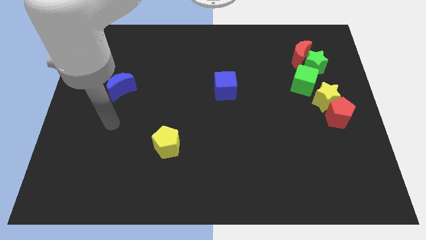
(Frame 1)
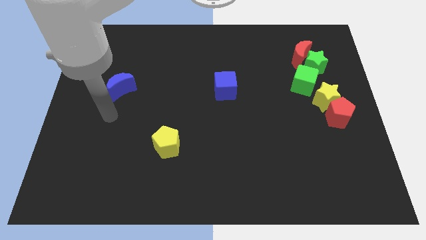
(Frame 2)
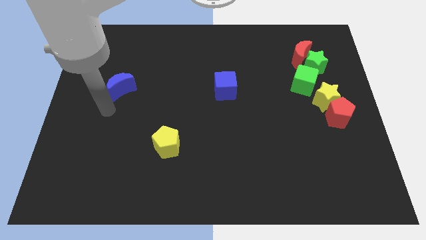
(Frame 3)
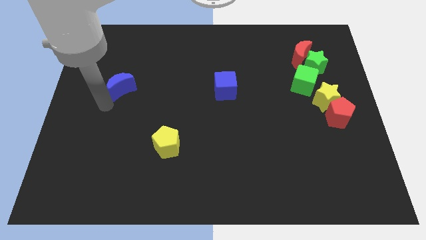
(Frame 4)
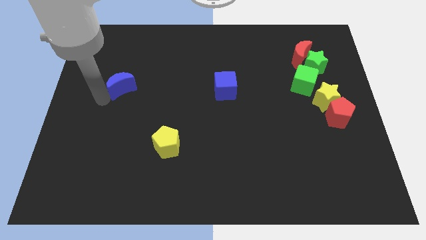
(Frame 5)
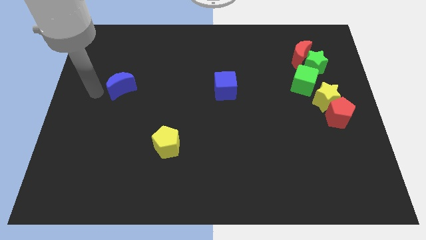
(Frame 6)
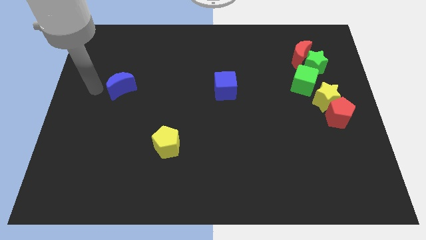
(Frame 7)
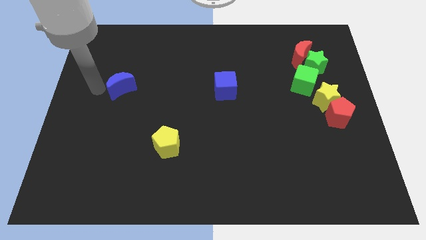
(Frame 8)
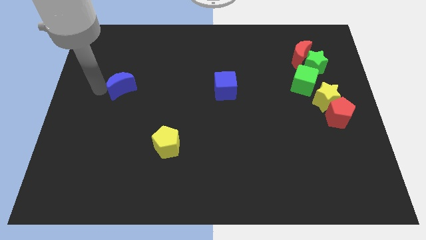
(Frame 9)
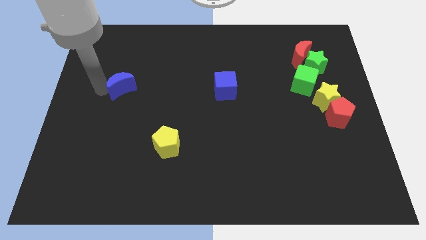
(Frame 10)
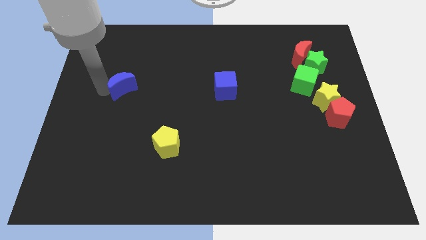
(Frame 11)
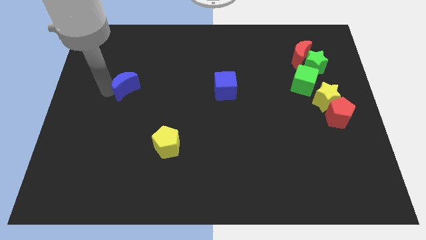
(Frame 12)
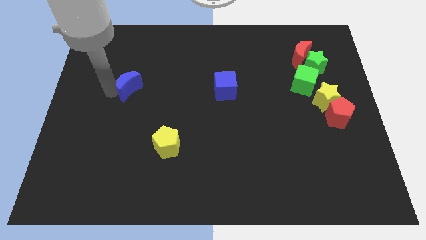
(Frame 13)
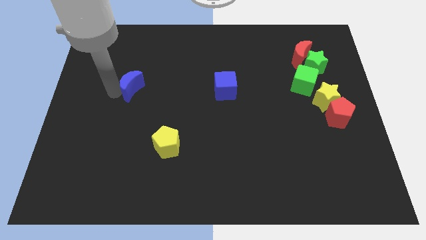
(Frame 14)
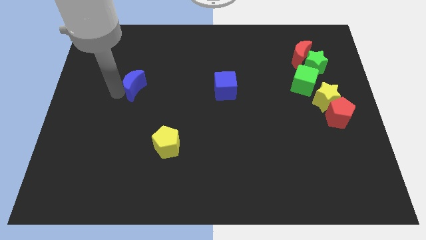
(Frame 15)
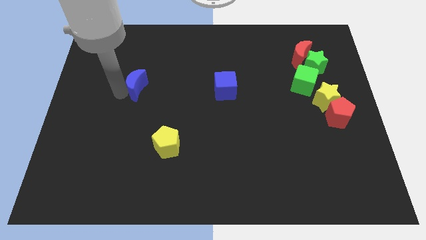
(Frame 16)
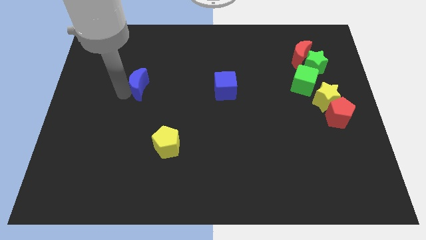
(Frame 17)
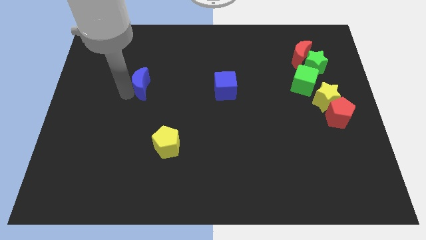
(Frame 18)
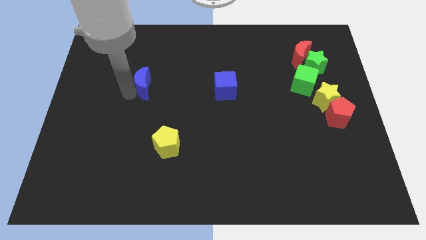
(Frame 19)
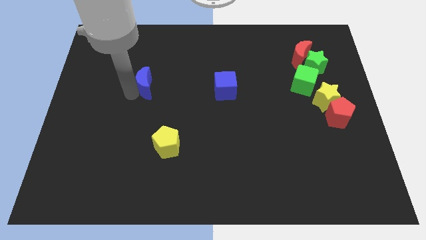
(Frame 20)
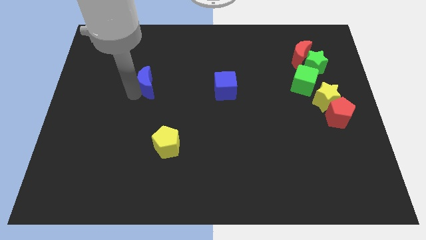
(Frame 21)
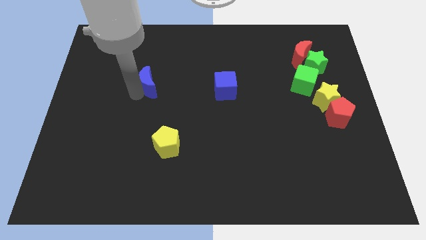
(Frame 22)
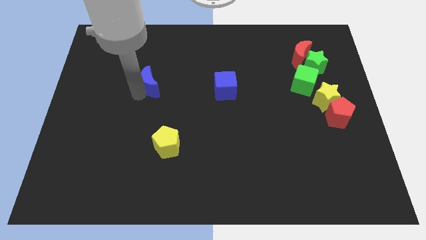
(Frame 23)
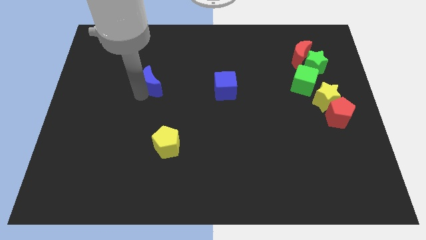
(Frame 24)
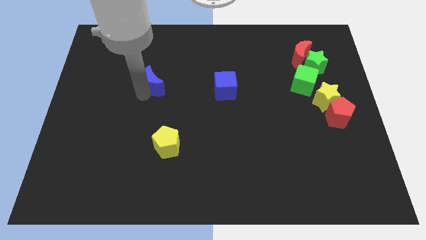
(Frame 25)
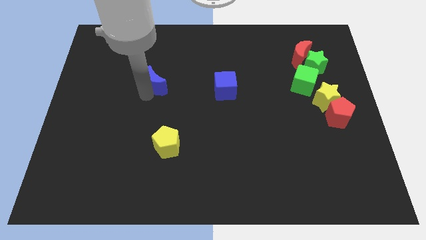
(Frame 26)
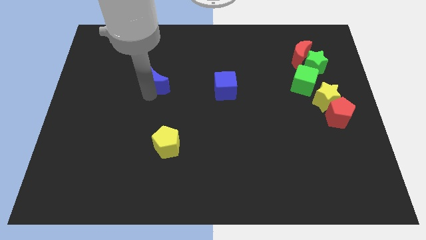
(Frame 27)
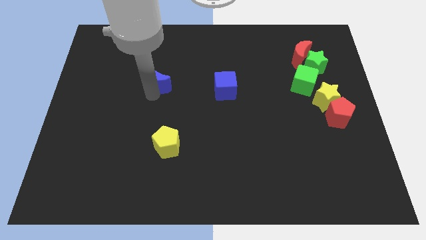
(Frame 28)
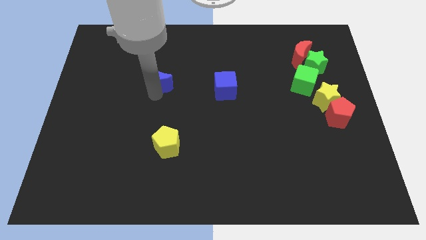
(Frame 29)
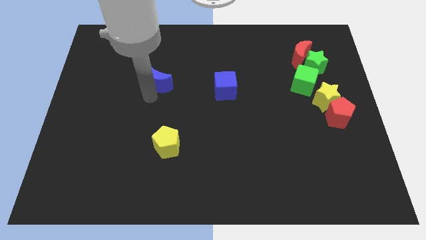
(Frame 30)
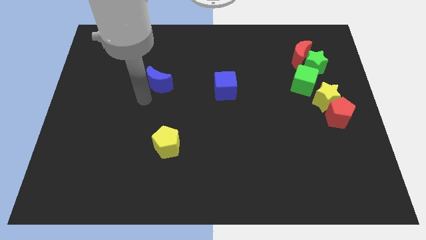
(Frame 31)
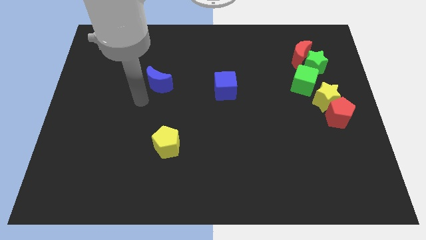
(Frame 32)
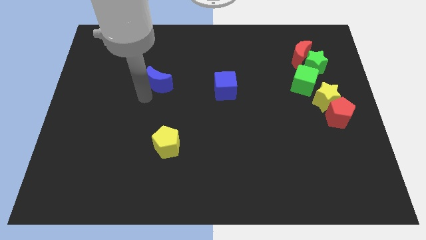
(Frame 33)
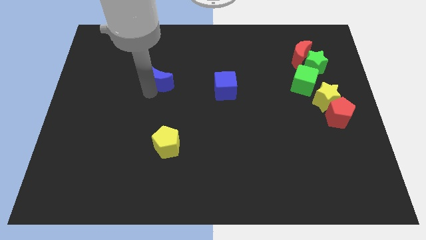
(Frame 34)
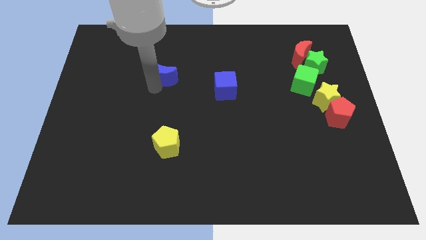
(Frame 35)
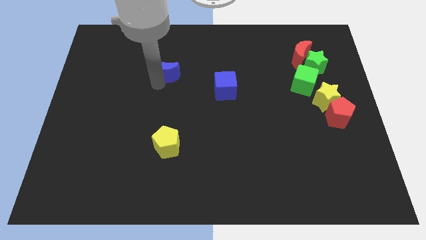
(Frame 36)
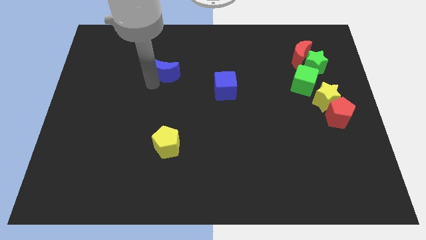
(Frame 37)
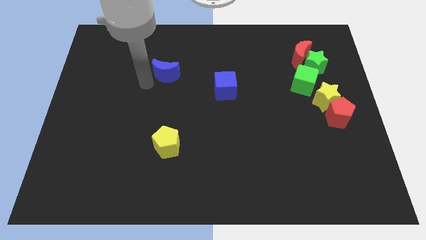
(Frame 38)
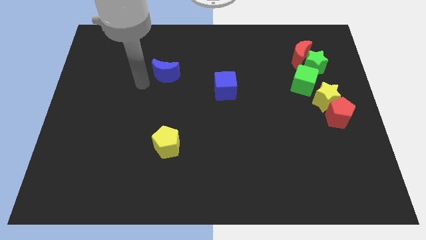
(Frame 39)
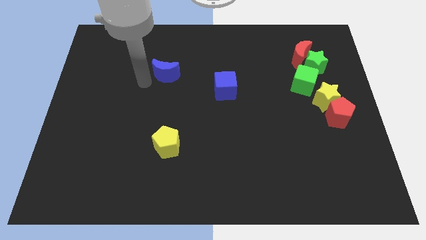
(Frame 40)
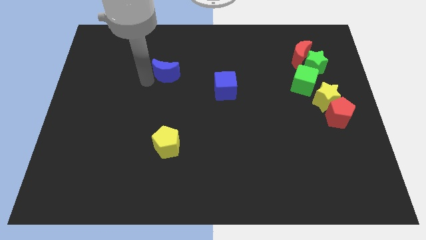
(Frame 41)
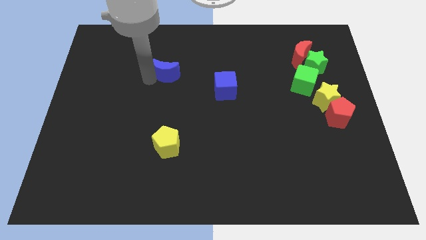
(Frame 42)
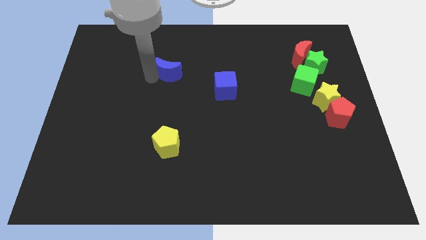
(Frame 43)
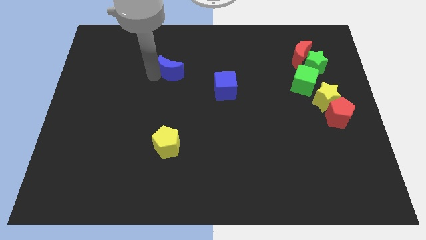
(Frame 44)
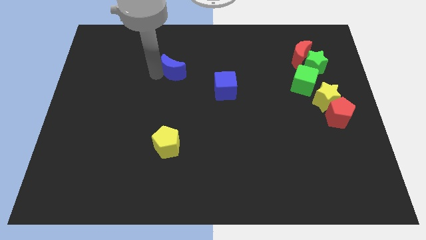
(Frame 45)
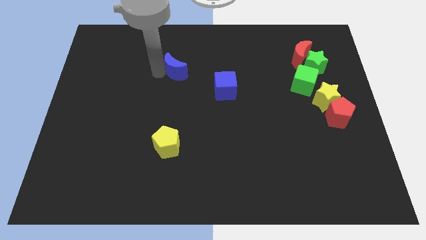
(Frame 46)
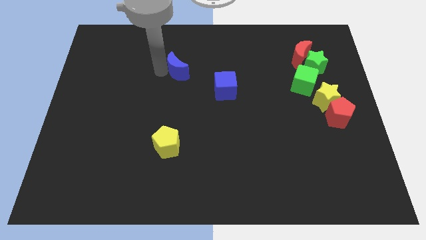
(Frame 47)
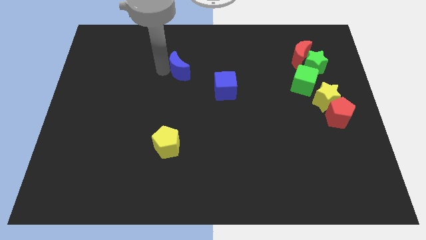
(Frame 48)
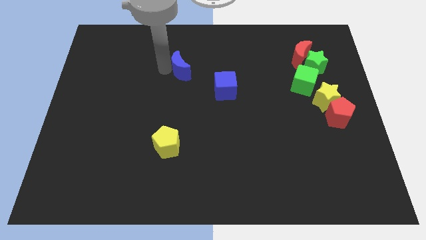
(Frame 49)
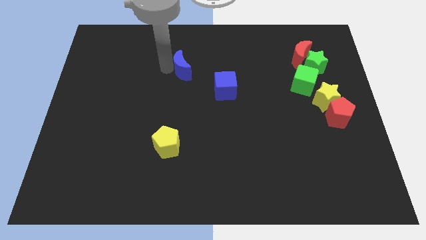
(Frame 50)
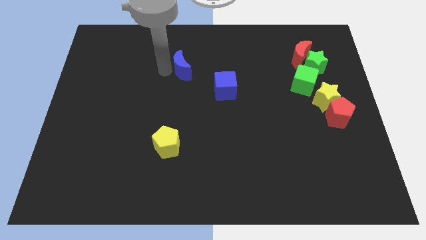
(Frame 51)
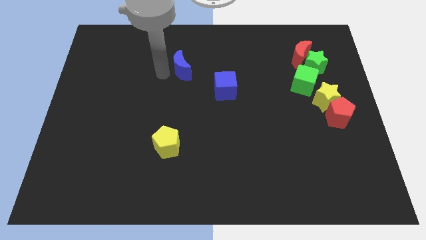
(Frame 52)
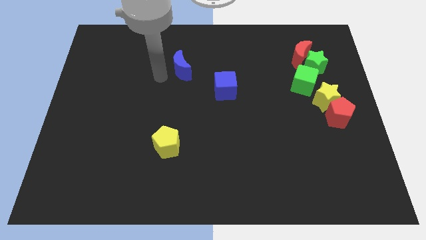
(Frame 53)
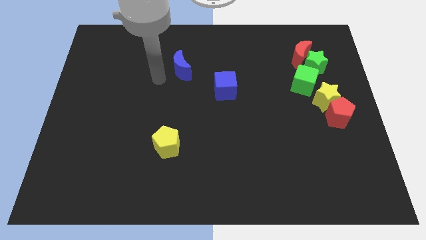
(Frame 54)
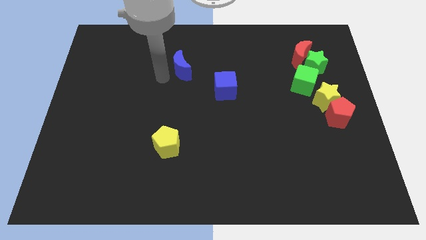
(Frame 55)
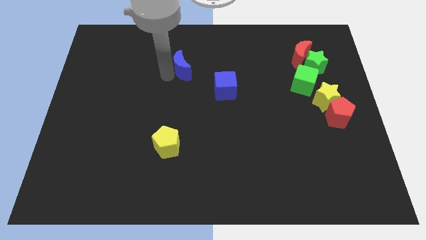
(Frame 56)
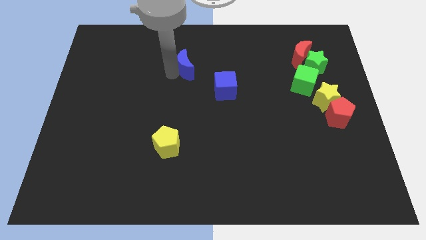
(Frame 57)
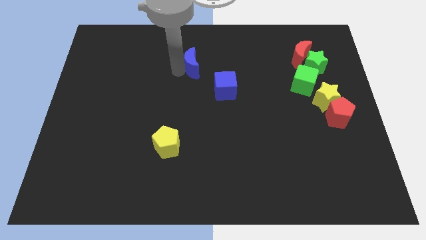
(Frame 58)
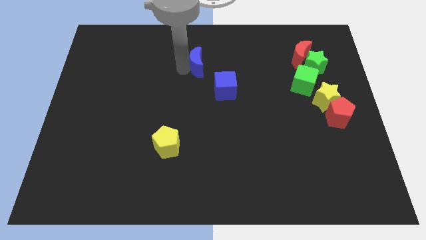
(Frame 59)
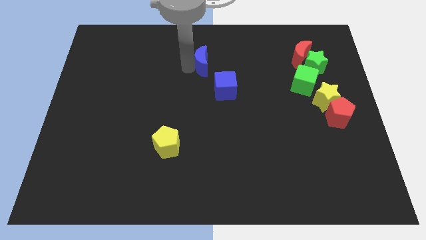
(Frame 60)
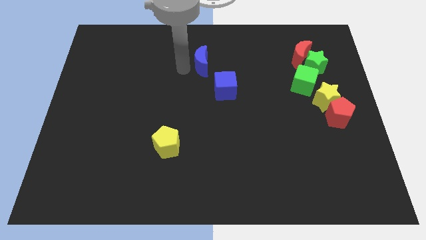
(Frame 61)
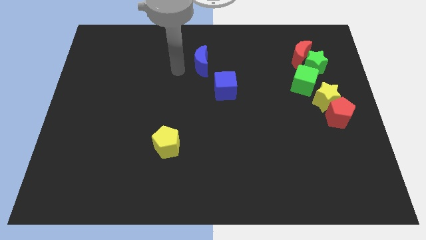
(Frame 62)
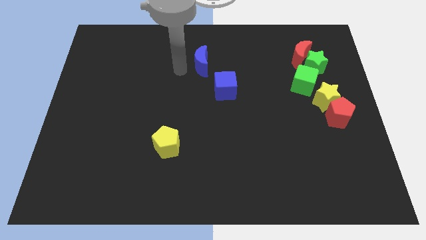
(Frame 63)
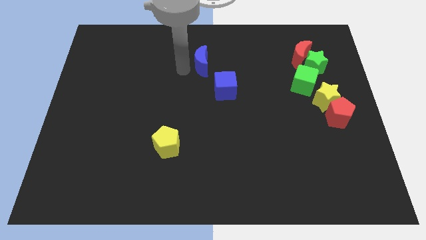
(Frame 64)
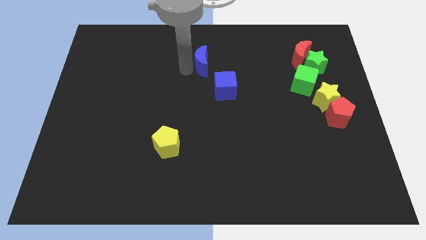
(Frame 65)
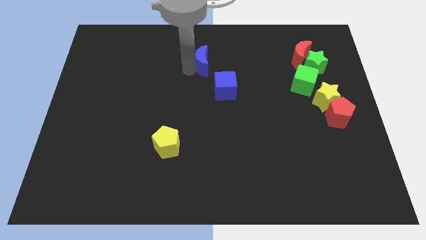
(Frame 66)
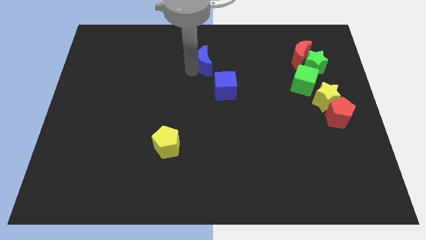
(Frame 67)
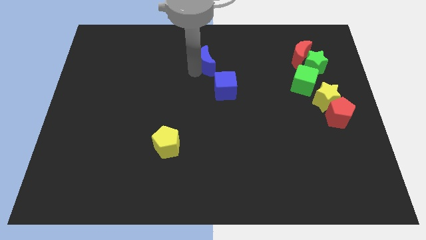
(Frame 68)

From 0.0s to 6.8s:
push the blue moon to the top side of the blue cube

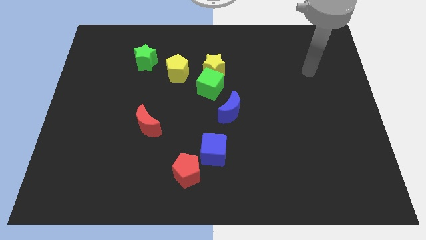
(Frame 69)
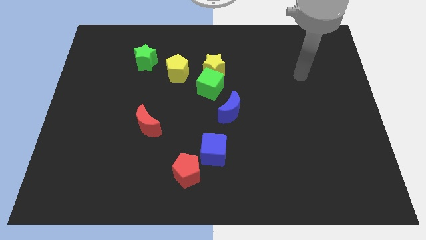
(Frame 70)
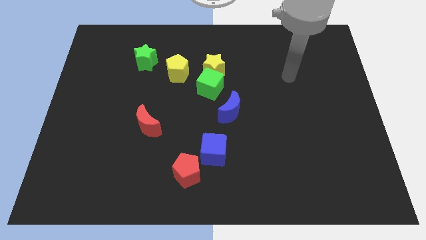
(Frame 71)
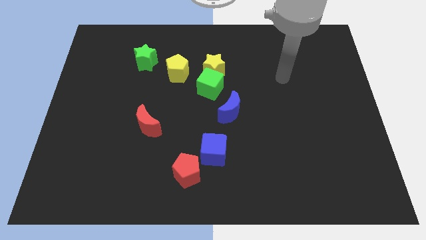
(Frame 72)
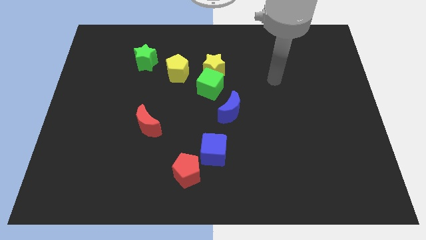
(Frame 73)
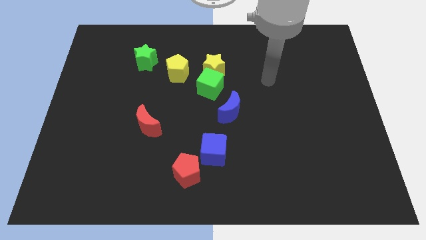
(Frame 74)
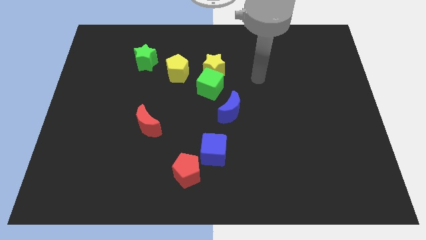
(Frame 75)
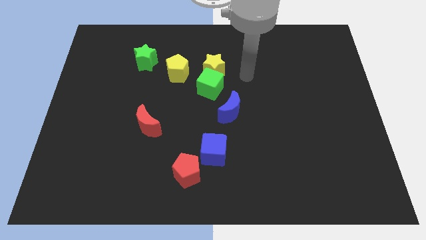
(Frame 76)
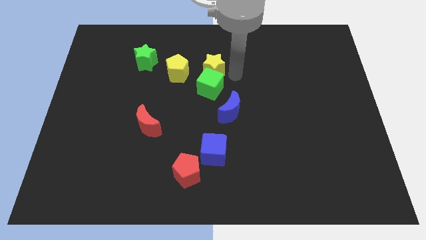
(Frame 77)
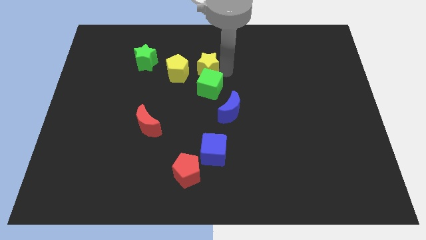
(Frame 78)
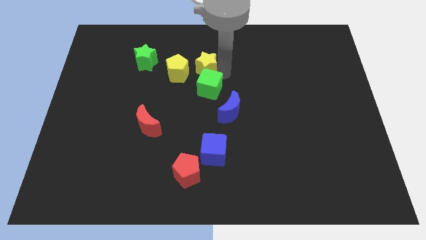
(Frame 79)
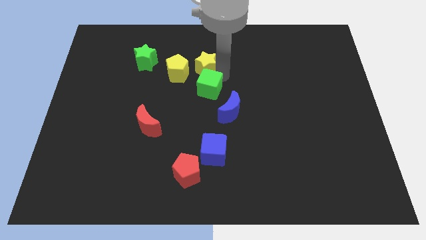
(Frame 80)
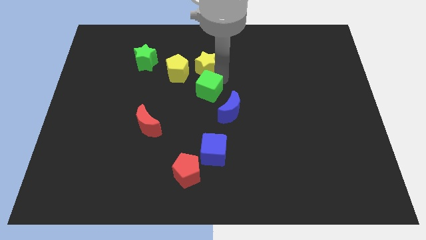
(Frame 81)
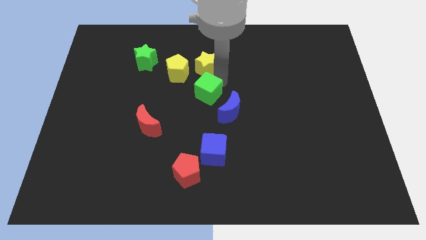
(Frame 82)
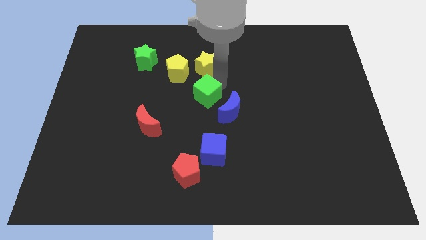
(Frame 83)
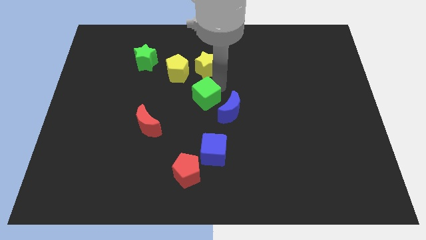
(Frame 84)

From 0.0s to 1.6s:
move the green cube just left of the blue moon
